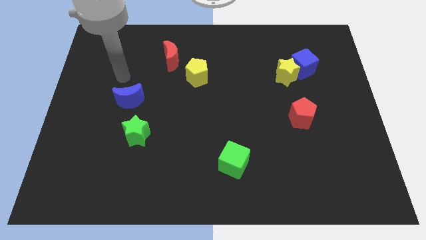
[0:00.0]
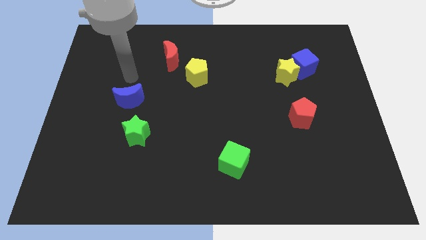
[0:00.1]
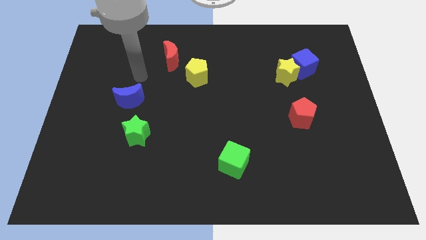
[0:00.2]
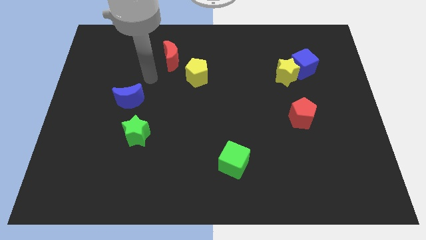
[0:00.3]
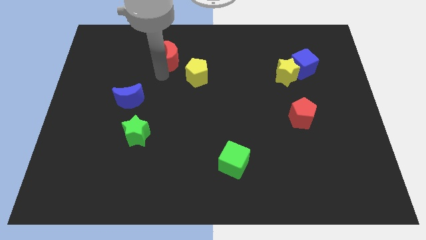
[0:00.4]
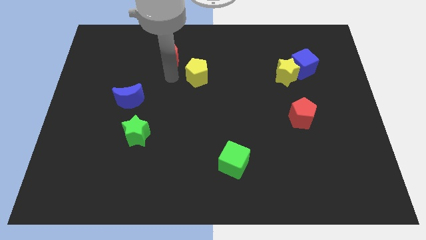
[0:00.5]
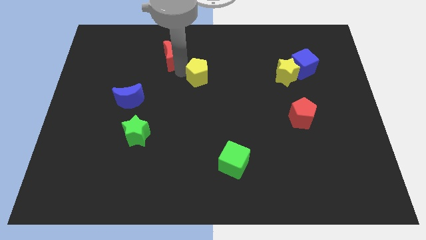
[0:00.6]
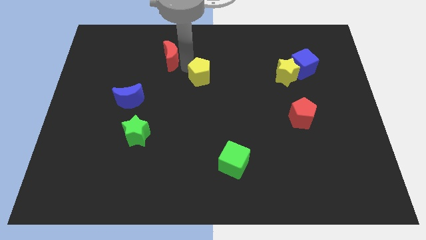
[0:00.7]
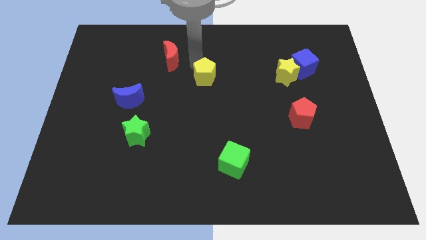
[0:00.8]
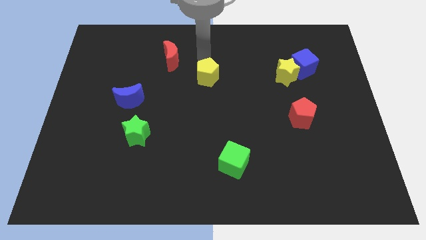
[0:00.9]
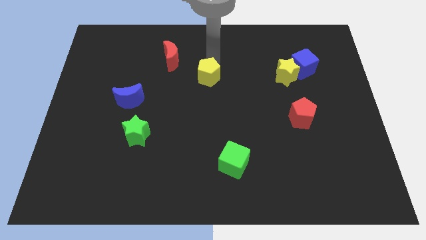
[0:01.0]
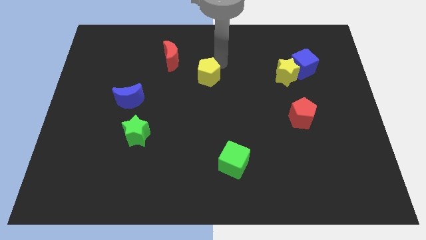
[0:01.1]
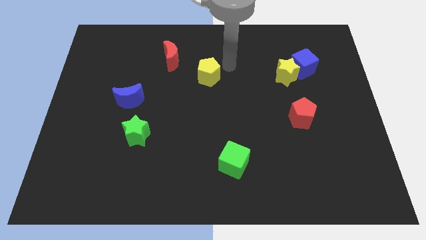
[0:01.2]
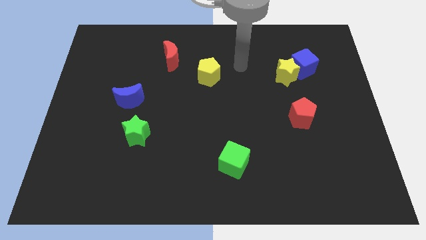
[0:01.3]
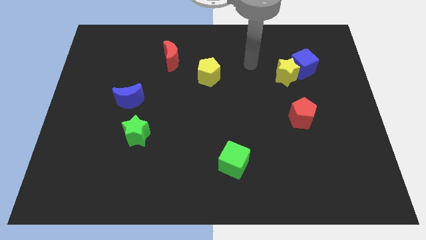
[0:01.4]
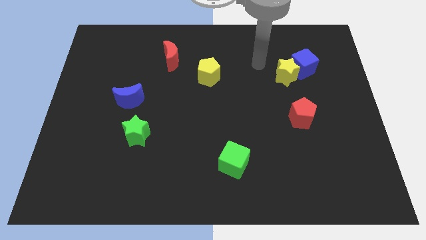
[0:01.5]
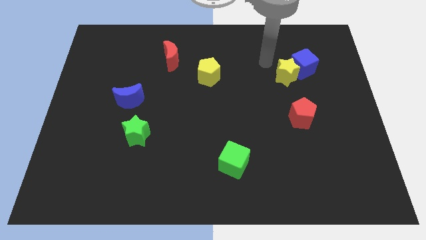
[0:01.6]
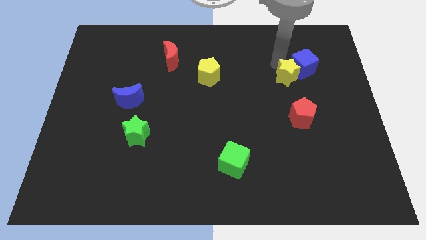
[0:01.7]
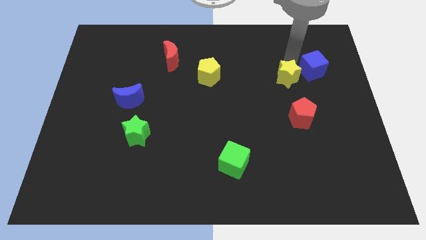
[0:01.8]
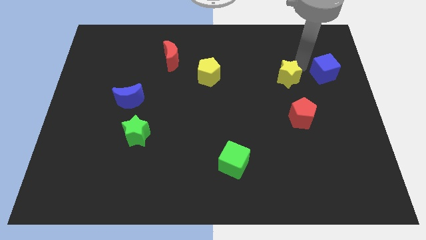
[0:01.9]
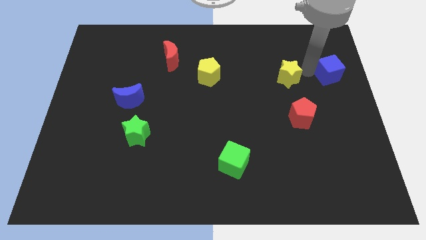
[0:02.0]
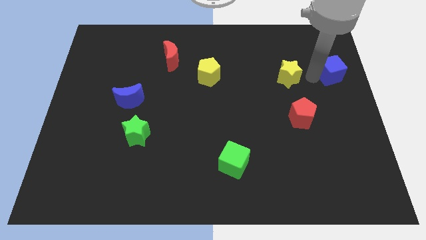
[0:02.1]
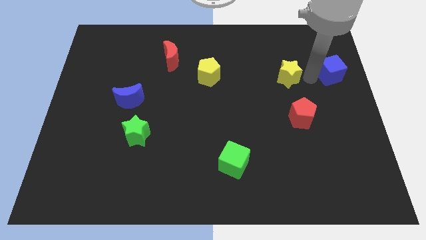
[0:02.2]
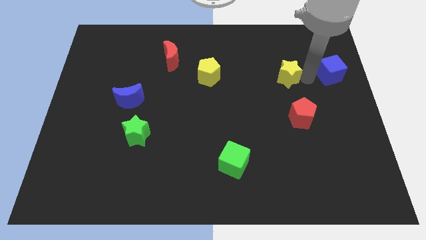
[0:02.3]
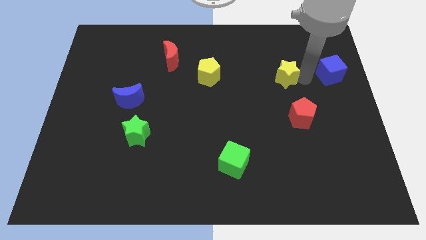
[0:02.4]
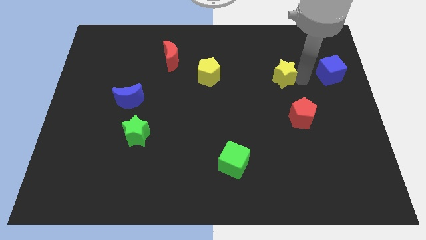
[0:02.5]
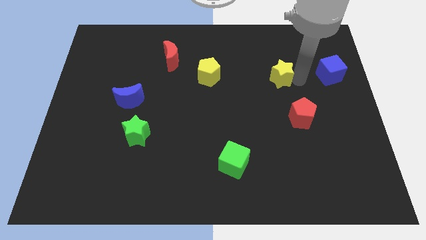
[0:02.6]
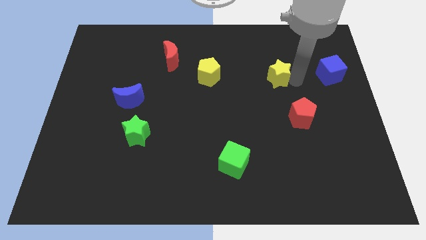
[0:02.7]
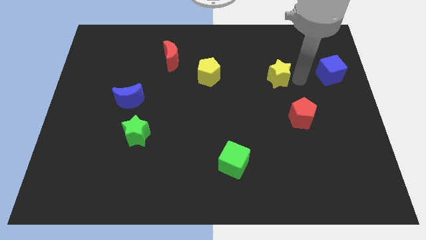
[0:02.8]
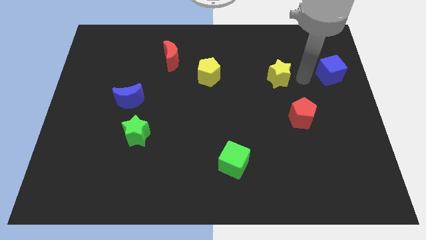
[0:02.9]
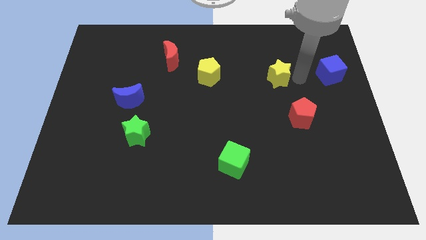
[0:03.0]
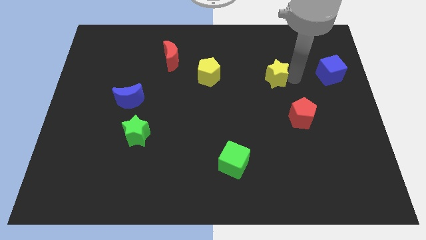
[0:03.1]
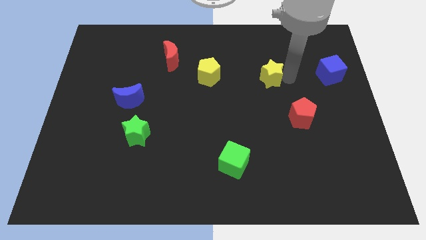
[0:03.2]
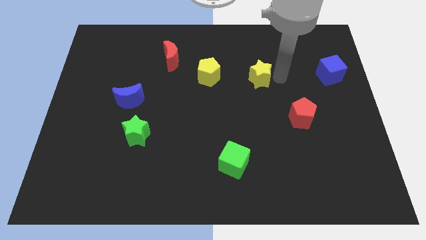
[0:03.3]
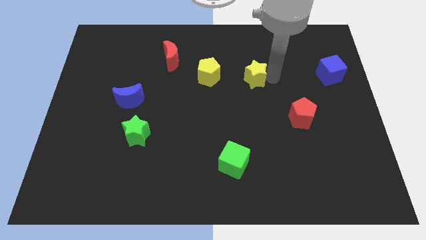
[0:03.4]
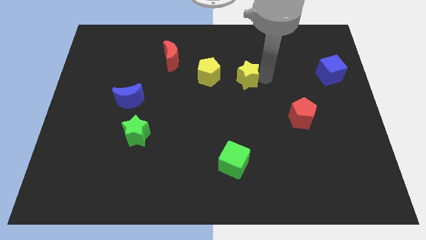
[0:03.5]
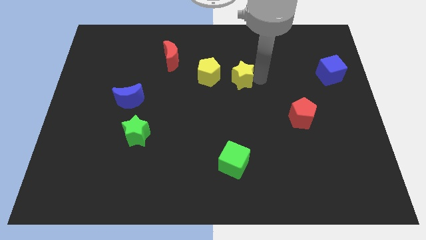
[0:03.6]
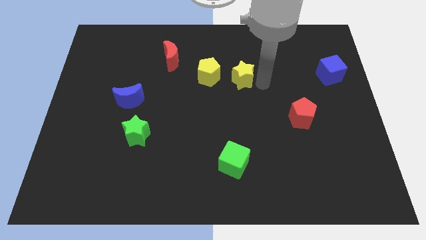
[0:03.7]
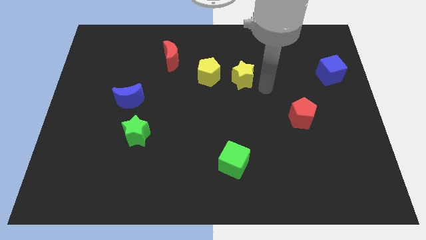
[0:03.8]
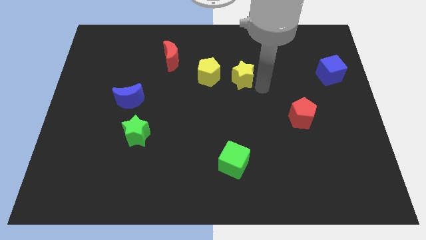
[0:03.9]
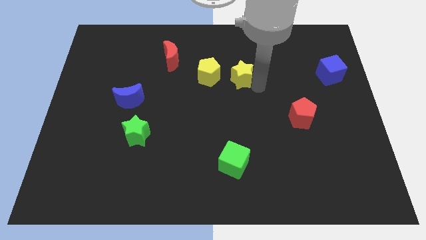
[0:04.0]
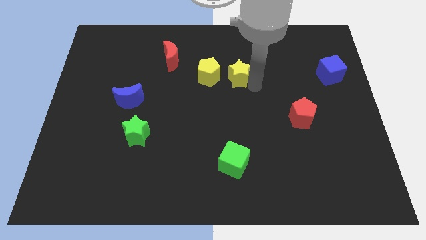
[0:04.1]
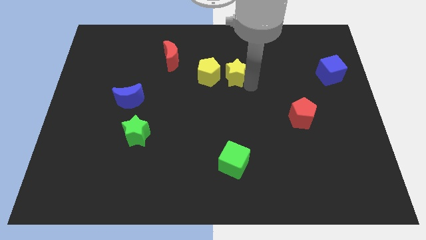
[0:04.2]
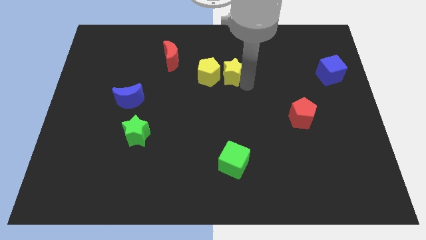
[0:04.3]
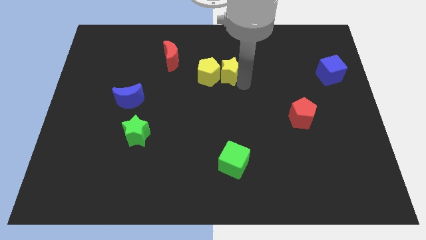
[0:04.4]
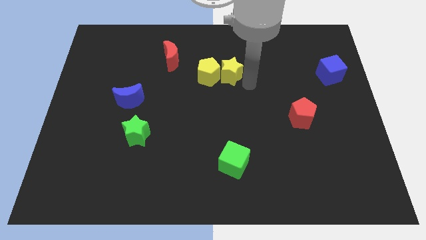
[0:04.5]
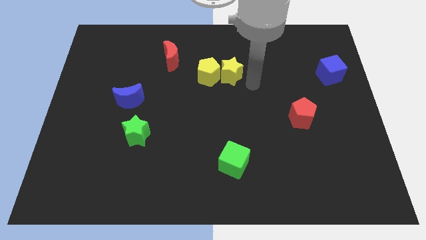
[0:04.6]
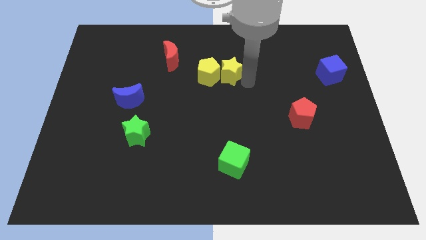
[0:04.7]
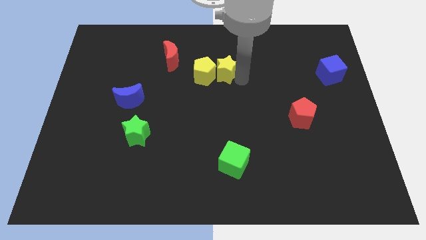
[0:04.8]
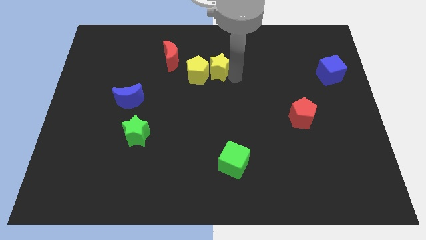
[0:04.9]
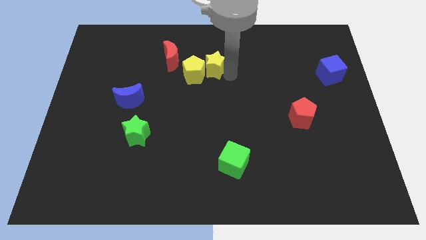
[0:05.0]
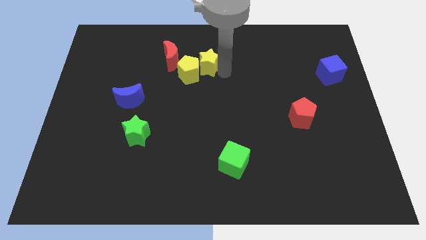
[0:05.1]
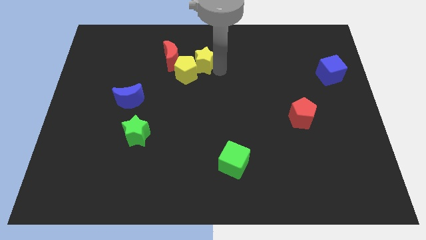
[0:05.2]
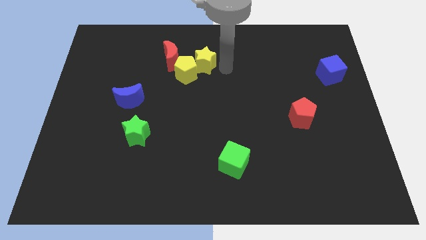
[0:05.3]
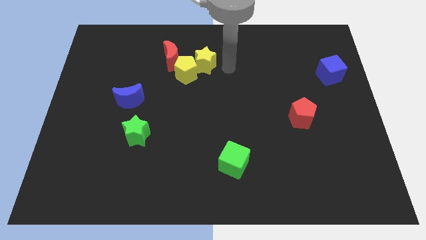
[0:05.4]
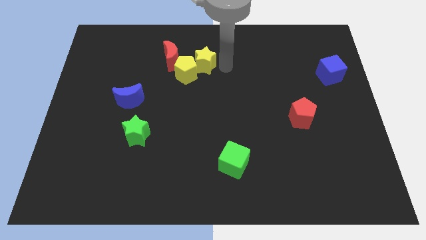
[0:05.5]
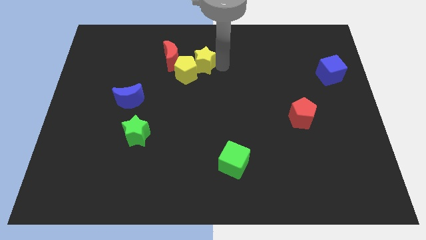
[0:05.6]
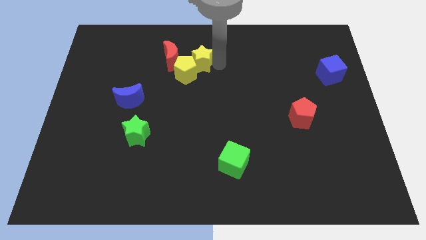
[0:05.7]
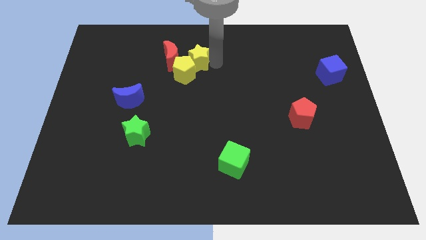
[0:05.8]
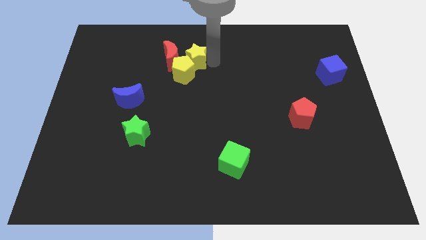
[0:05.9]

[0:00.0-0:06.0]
put the yellow star next to the red moon
